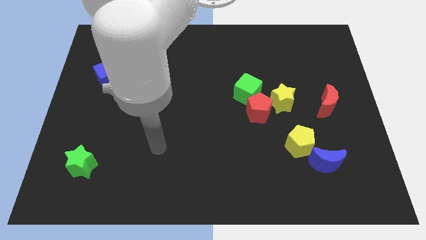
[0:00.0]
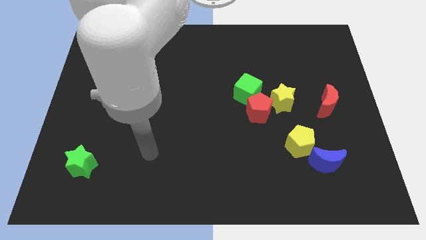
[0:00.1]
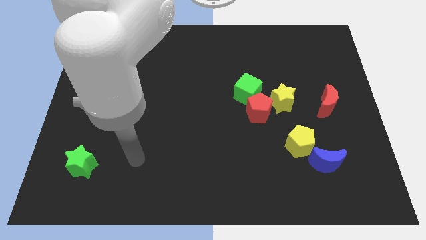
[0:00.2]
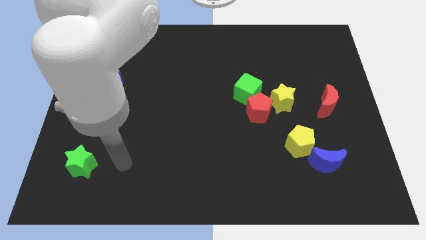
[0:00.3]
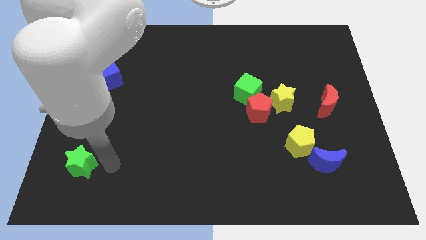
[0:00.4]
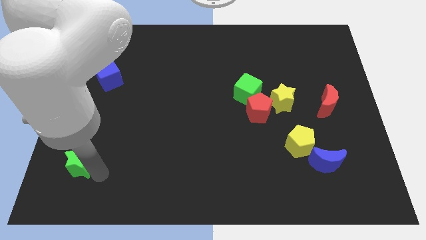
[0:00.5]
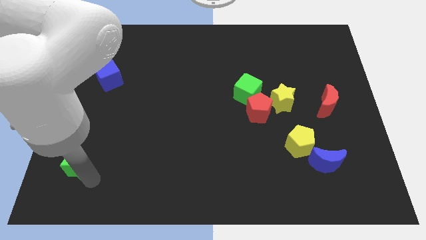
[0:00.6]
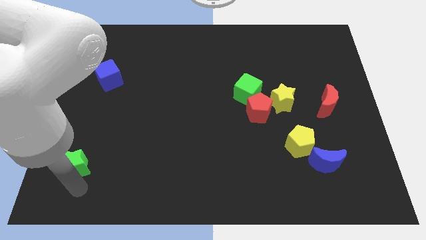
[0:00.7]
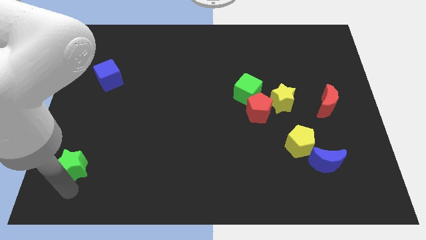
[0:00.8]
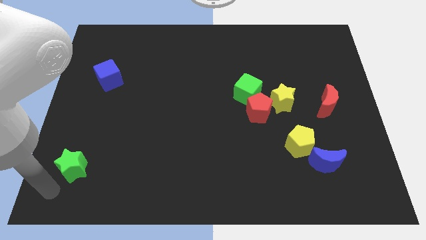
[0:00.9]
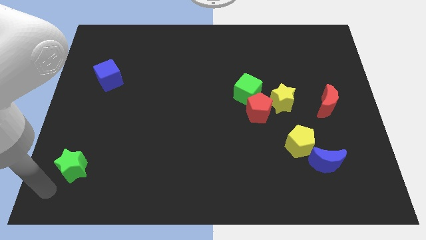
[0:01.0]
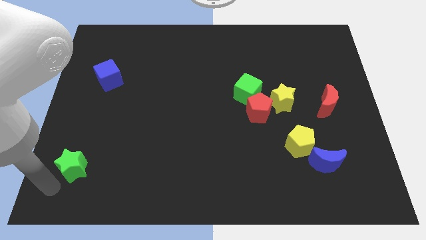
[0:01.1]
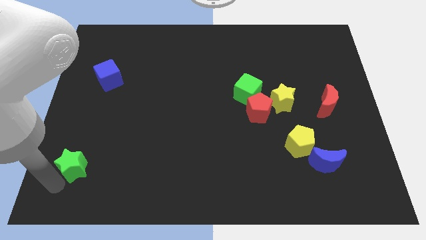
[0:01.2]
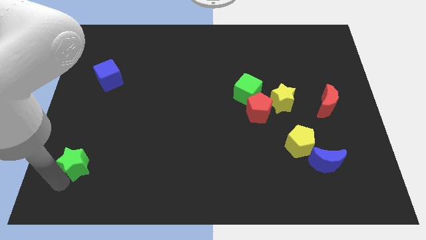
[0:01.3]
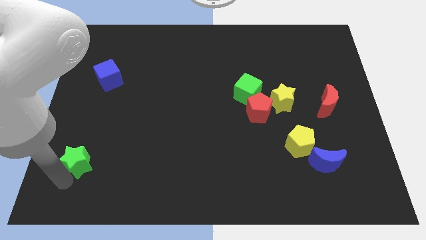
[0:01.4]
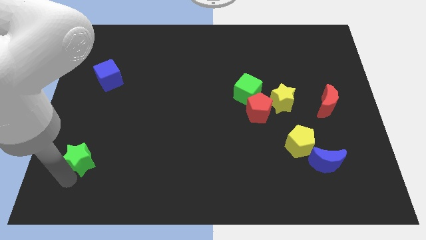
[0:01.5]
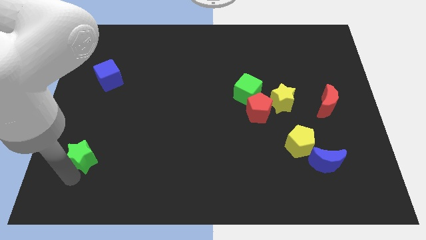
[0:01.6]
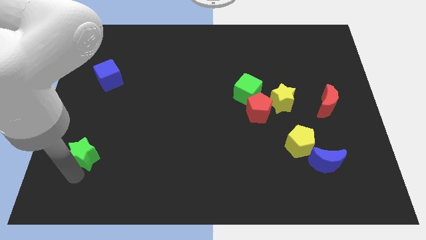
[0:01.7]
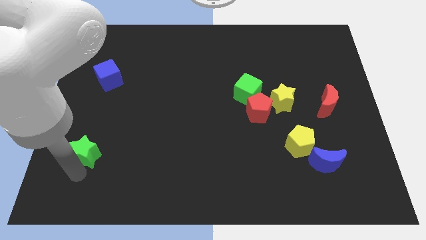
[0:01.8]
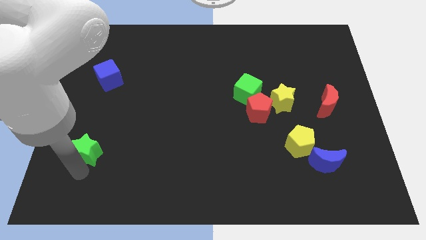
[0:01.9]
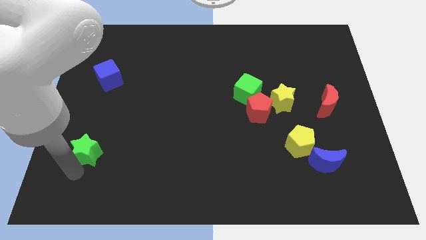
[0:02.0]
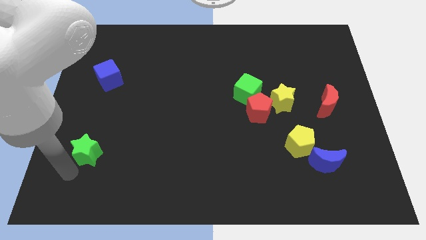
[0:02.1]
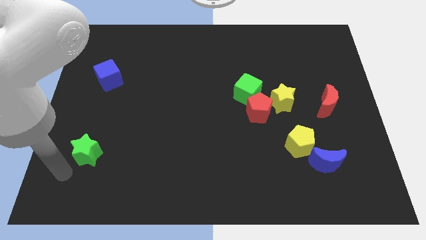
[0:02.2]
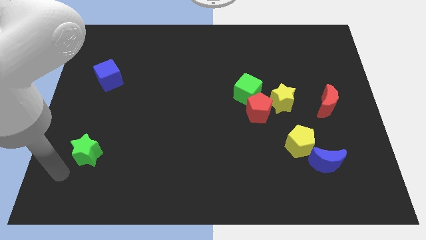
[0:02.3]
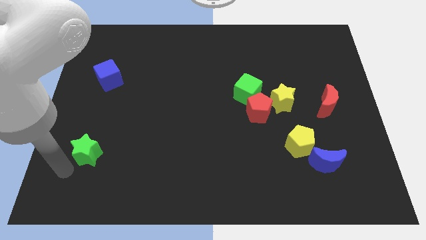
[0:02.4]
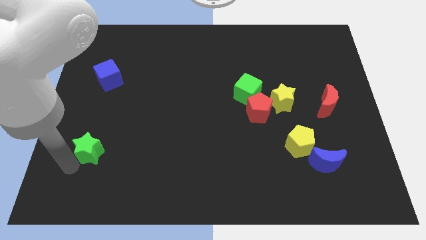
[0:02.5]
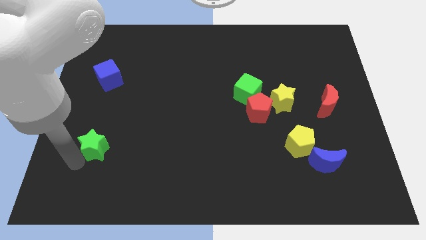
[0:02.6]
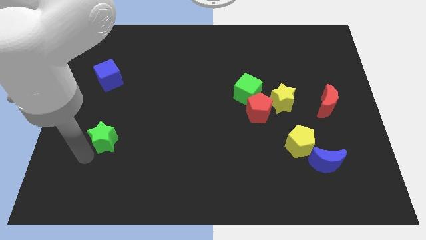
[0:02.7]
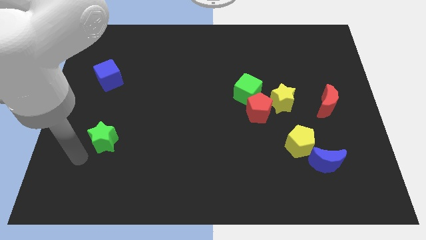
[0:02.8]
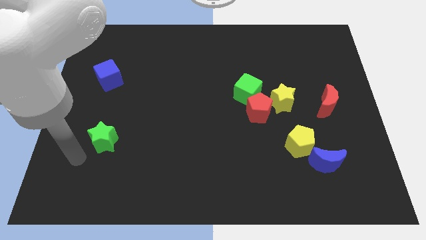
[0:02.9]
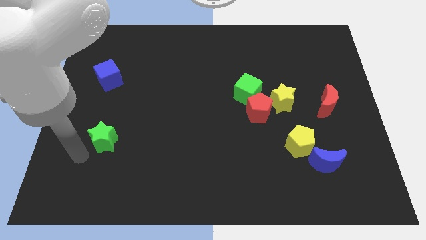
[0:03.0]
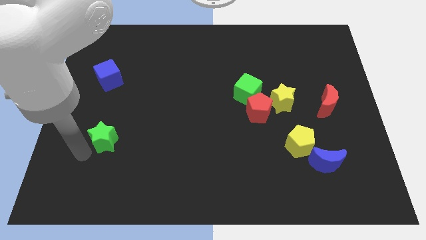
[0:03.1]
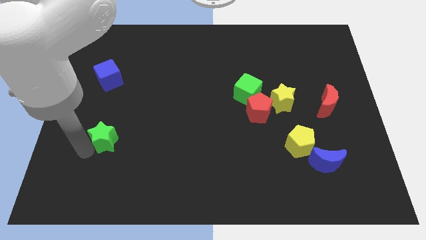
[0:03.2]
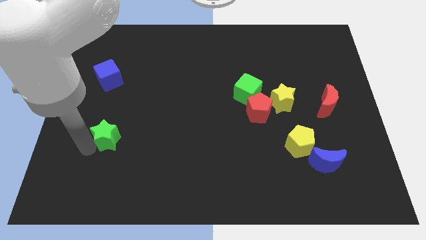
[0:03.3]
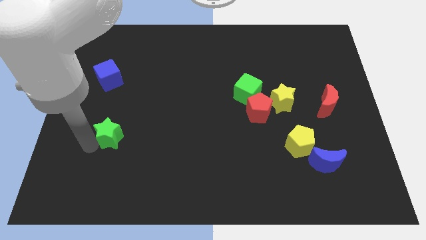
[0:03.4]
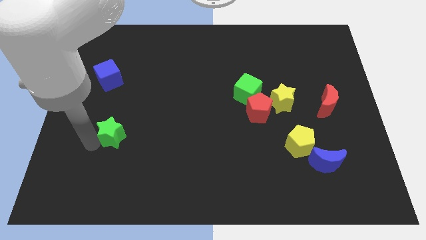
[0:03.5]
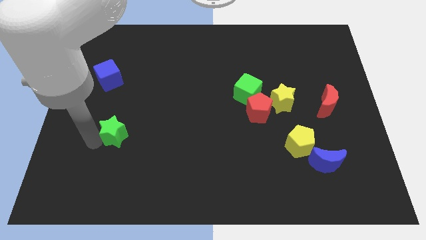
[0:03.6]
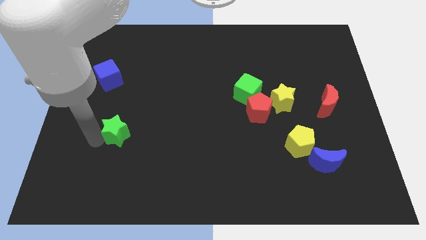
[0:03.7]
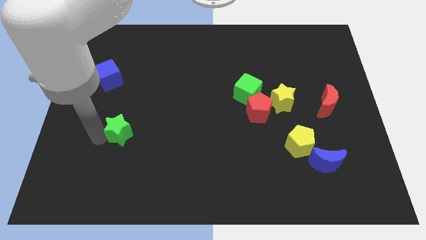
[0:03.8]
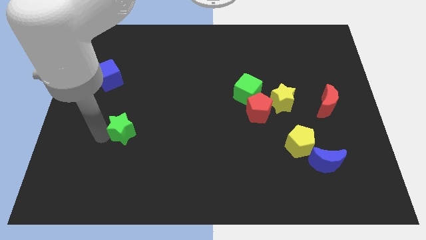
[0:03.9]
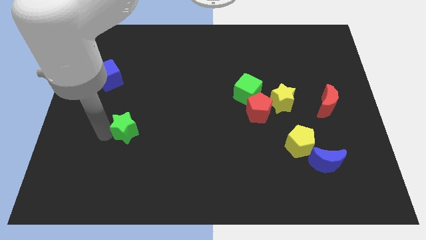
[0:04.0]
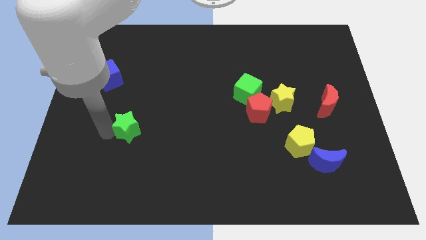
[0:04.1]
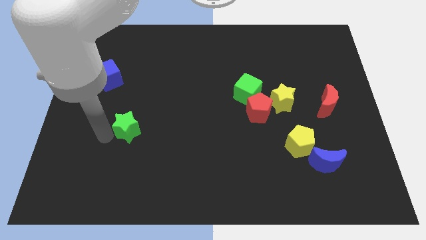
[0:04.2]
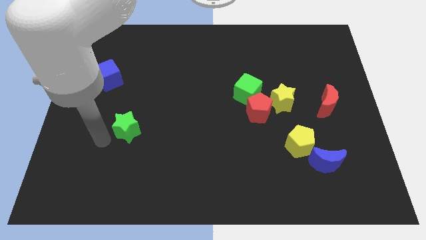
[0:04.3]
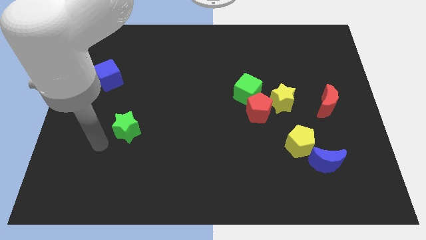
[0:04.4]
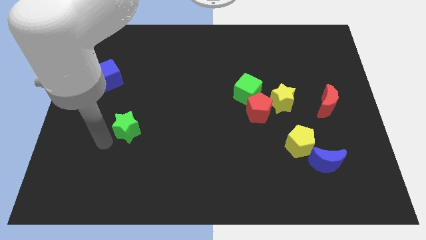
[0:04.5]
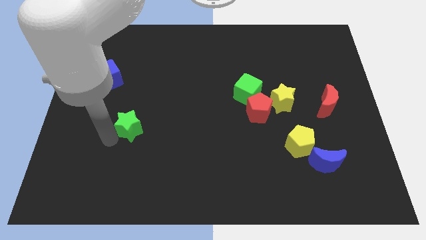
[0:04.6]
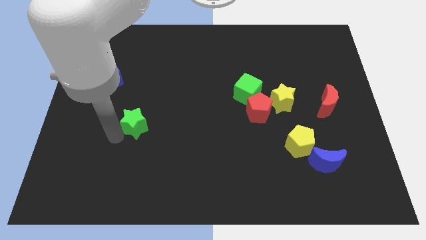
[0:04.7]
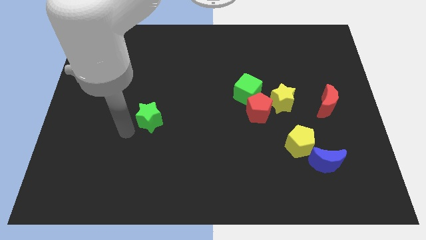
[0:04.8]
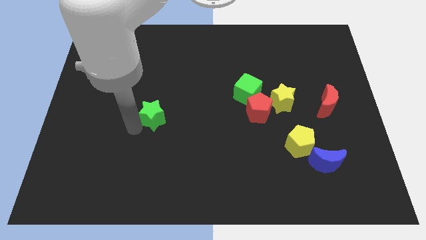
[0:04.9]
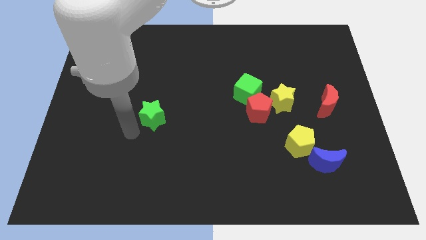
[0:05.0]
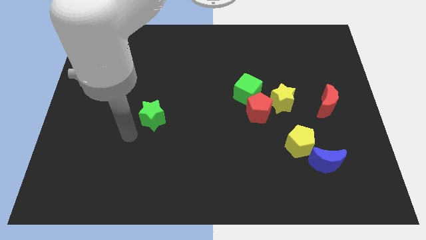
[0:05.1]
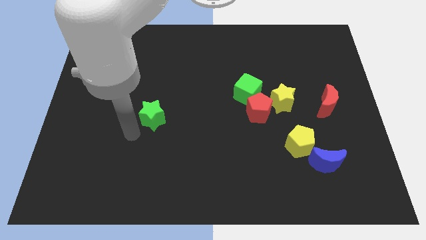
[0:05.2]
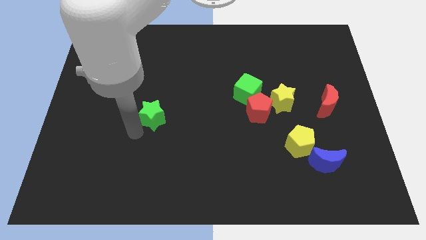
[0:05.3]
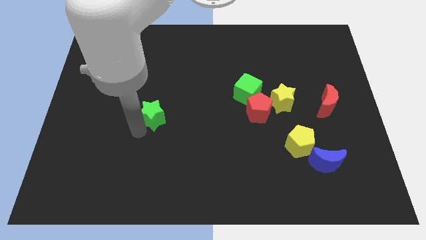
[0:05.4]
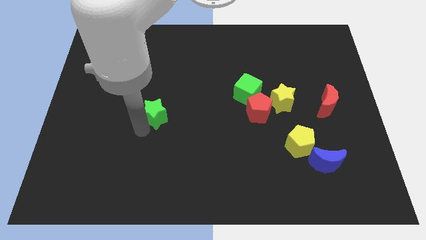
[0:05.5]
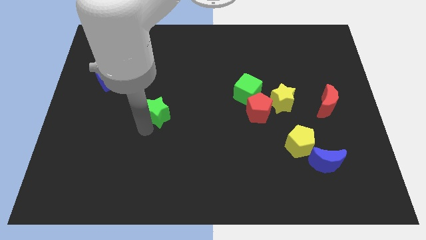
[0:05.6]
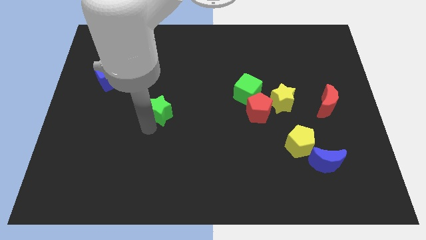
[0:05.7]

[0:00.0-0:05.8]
move the green star upwards and to the right

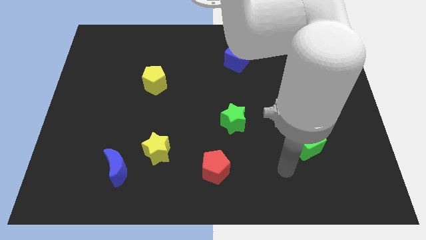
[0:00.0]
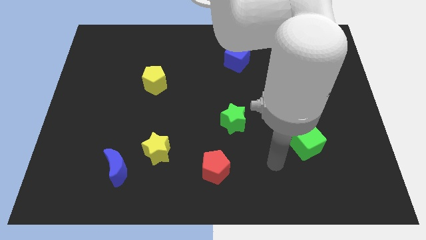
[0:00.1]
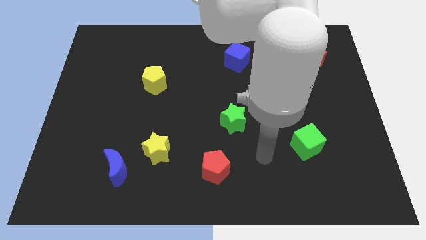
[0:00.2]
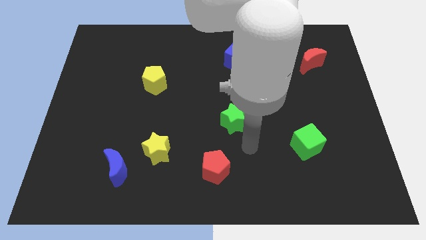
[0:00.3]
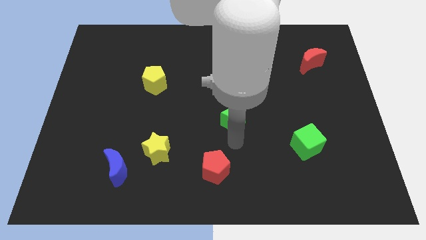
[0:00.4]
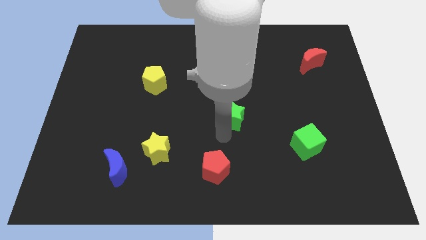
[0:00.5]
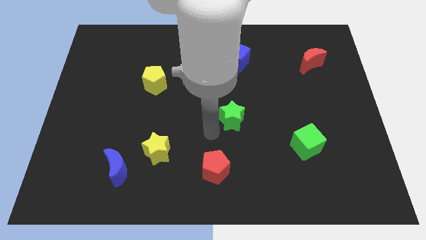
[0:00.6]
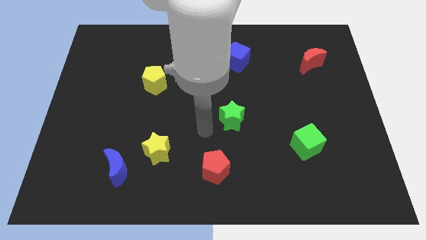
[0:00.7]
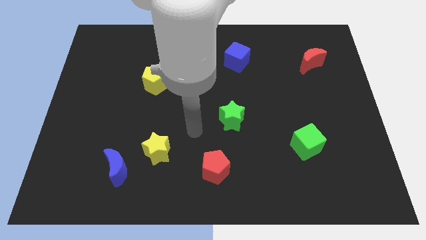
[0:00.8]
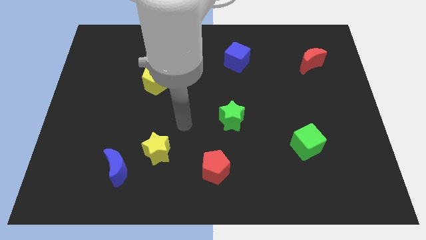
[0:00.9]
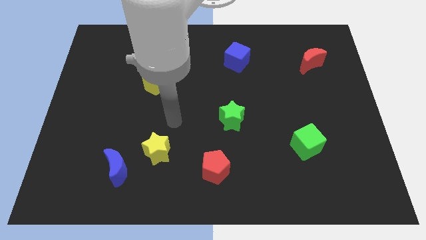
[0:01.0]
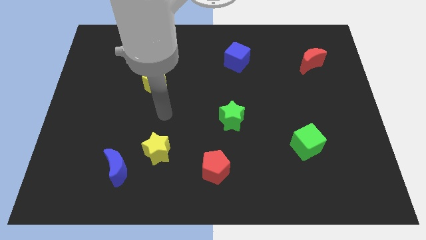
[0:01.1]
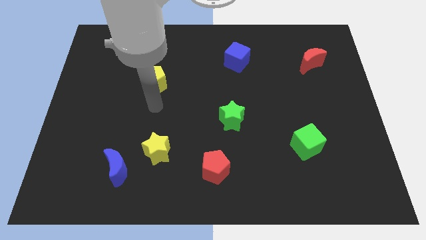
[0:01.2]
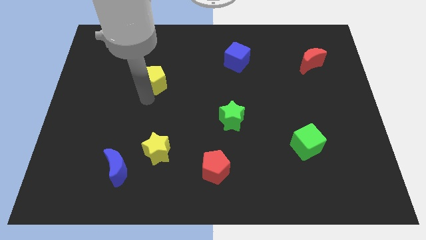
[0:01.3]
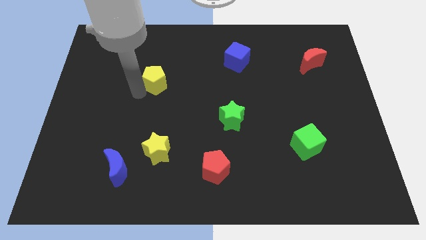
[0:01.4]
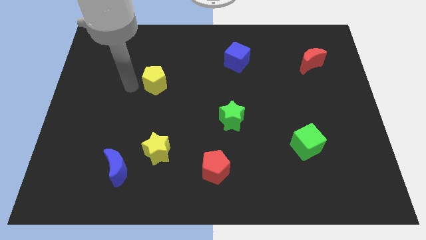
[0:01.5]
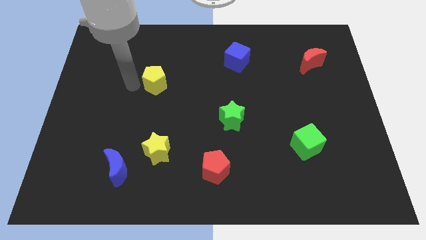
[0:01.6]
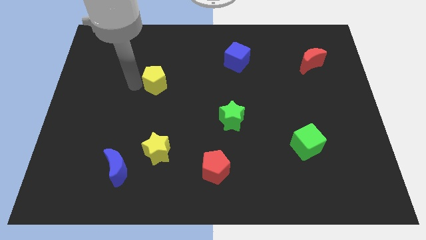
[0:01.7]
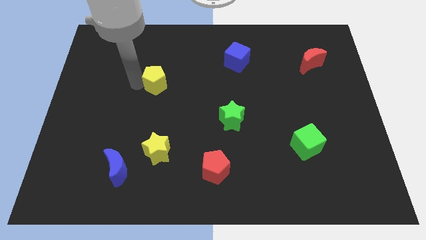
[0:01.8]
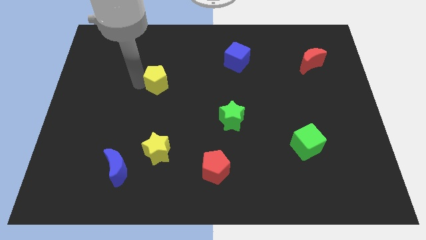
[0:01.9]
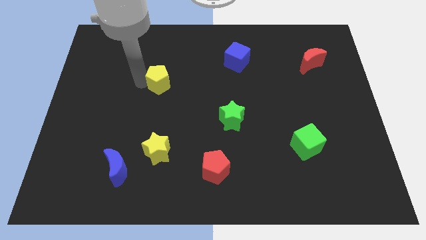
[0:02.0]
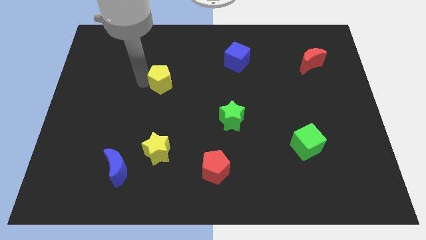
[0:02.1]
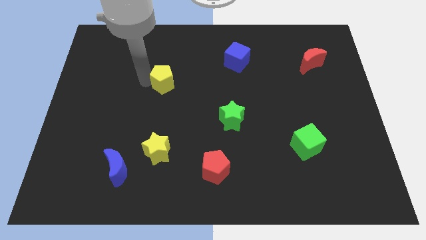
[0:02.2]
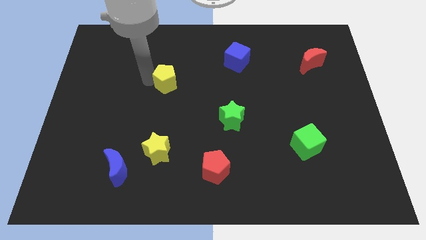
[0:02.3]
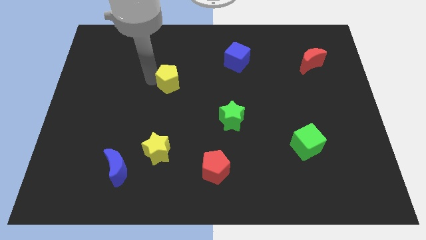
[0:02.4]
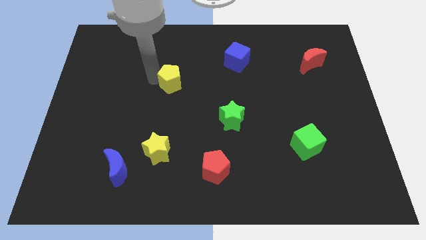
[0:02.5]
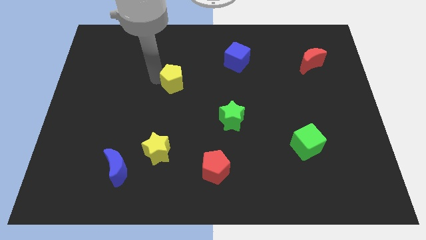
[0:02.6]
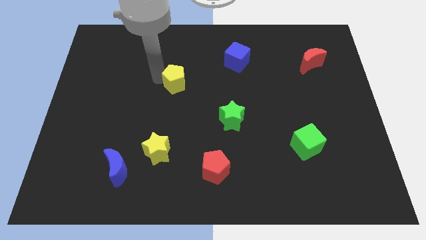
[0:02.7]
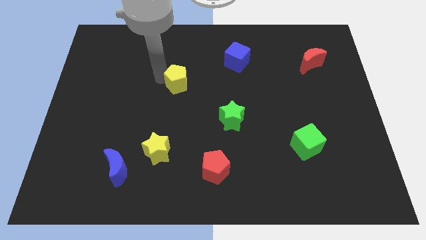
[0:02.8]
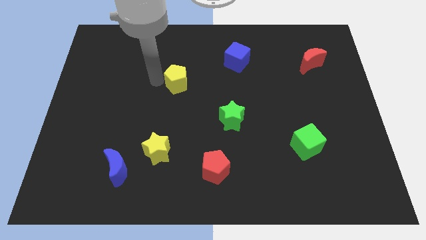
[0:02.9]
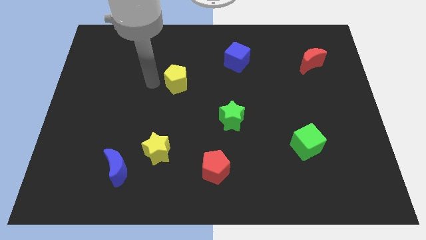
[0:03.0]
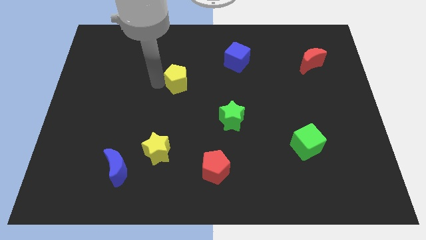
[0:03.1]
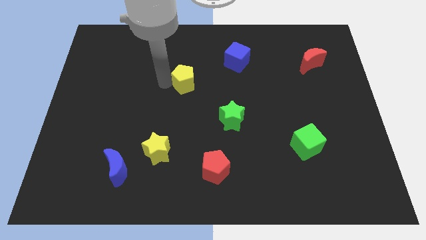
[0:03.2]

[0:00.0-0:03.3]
move the yellow pentagon right a bit
